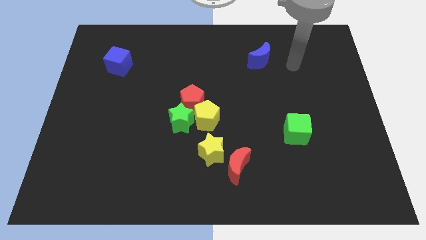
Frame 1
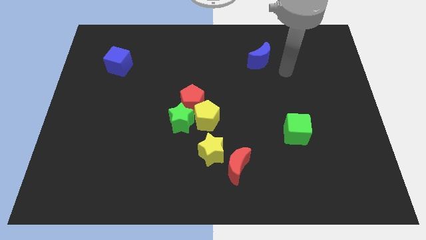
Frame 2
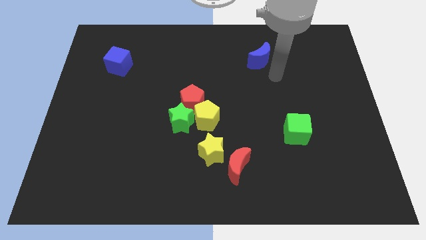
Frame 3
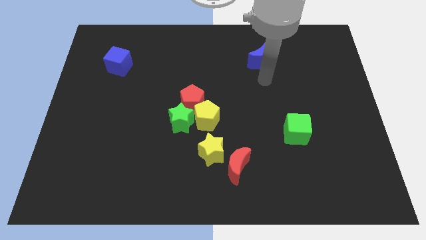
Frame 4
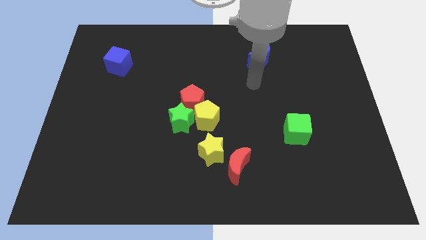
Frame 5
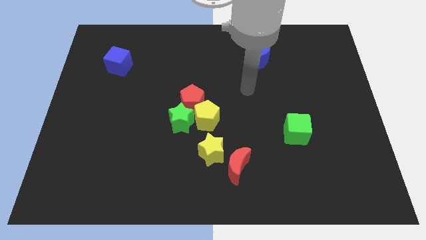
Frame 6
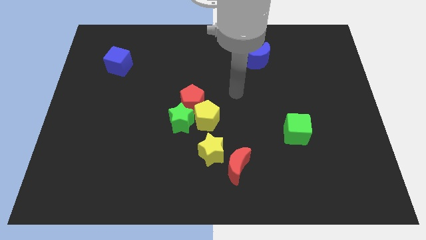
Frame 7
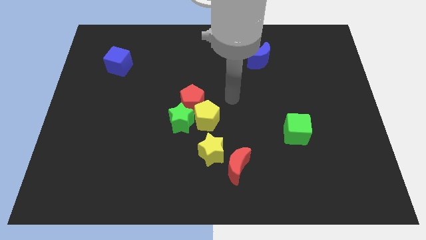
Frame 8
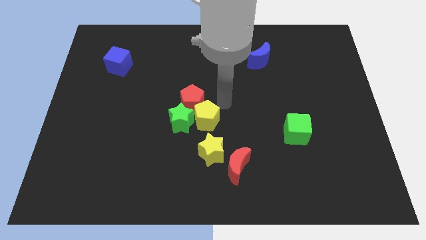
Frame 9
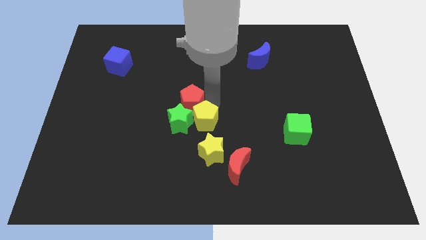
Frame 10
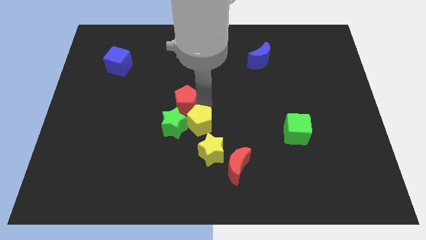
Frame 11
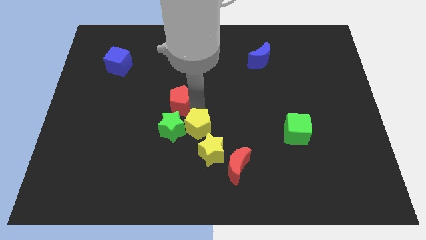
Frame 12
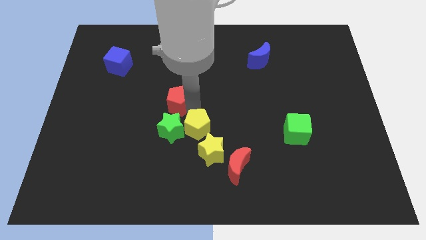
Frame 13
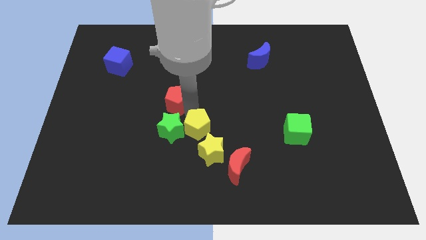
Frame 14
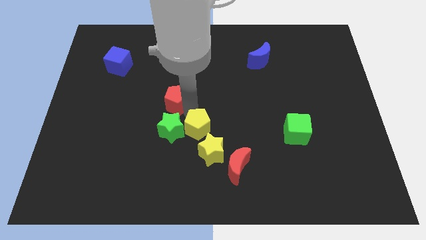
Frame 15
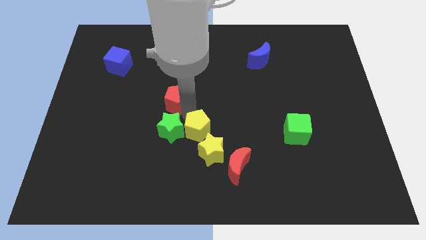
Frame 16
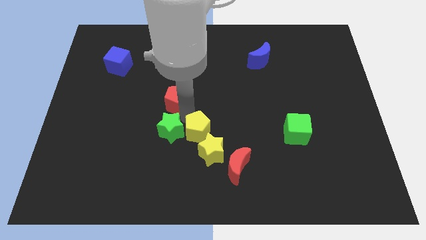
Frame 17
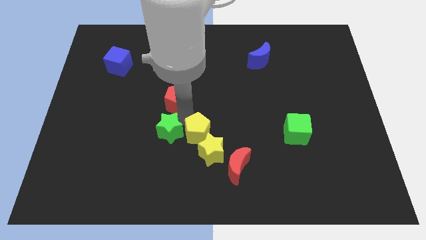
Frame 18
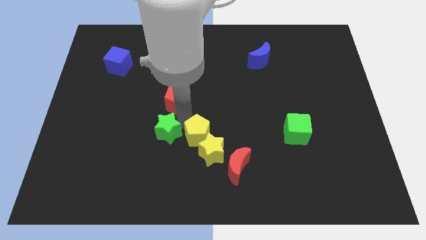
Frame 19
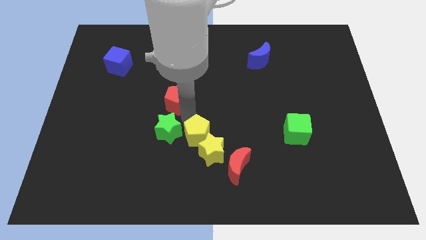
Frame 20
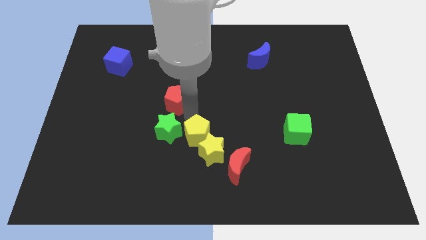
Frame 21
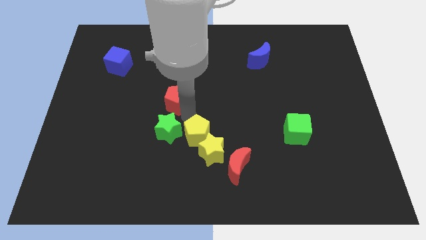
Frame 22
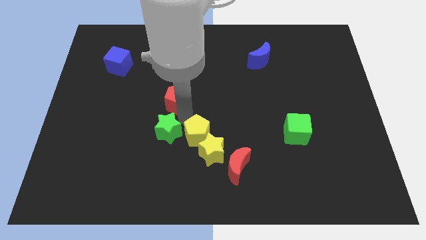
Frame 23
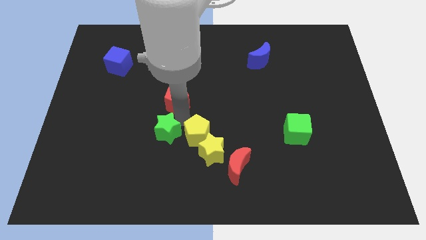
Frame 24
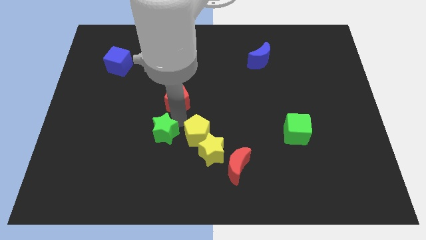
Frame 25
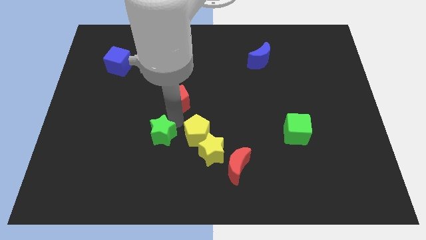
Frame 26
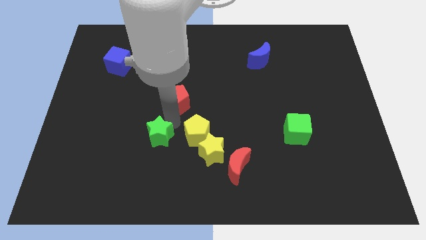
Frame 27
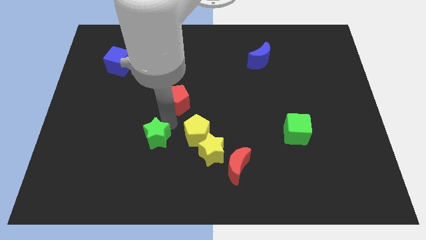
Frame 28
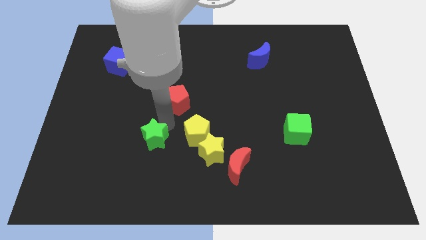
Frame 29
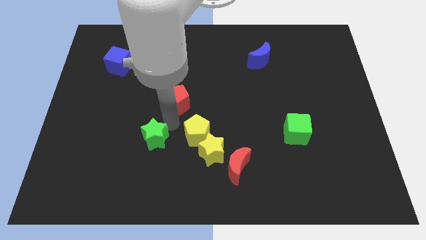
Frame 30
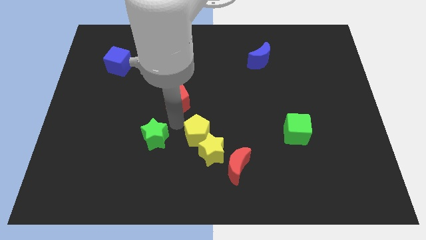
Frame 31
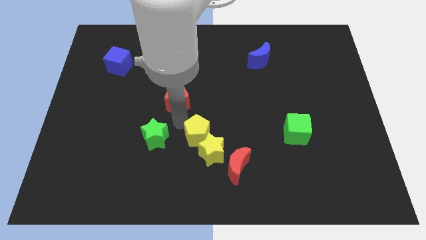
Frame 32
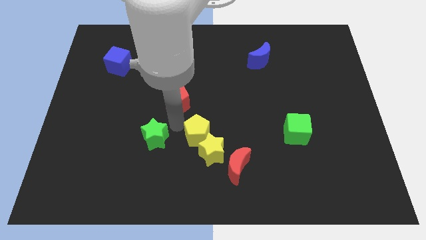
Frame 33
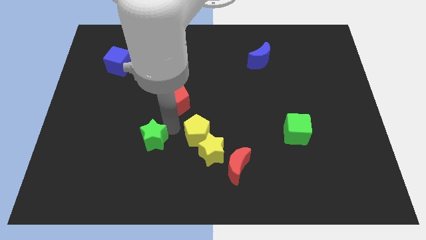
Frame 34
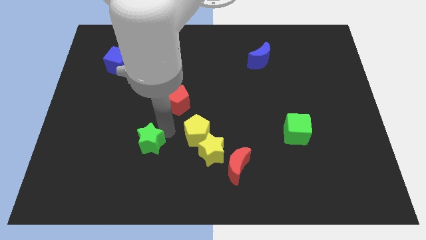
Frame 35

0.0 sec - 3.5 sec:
separate the green star from the yellow pentagon and red pentagon

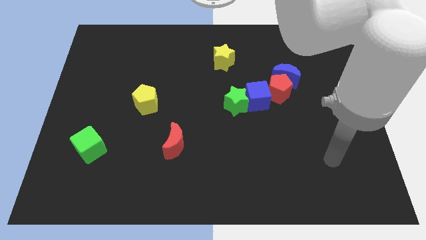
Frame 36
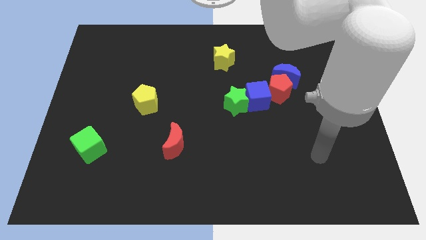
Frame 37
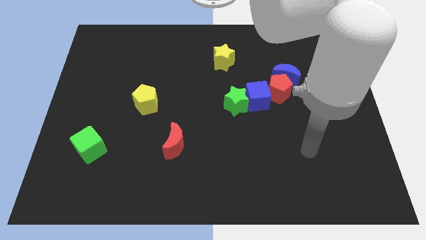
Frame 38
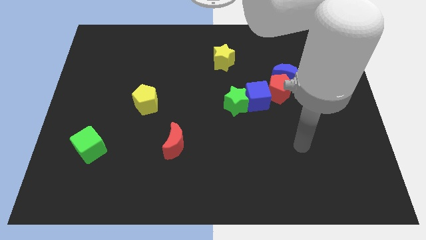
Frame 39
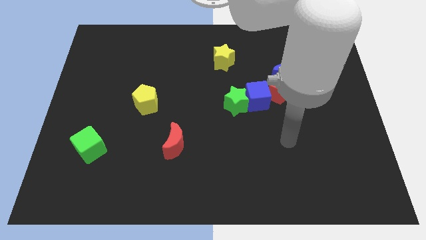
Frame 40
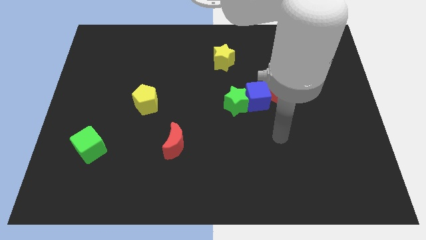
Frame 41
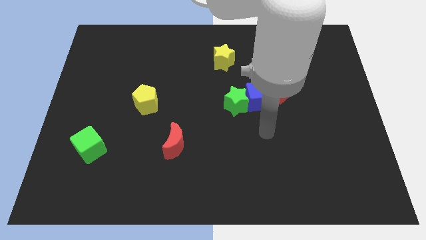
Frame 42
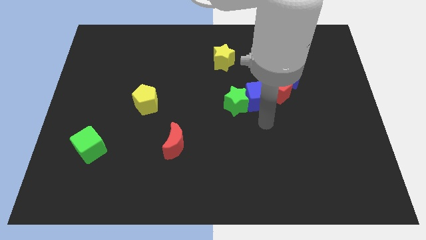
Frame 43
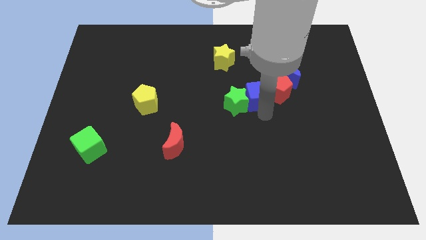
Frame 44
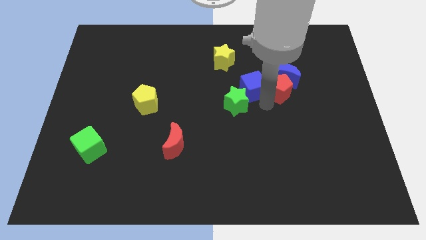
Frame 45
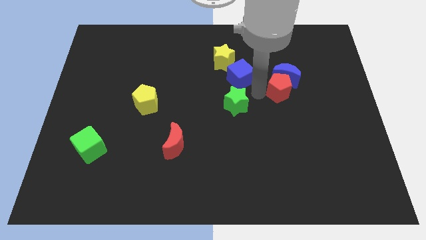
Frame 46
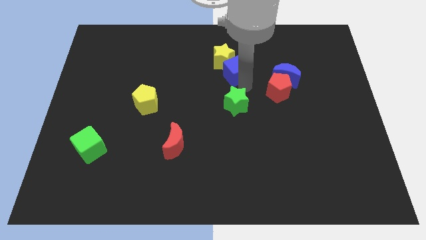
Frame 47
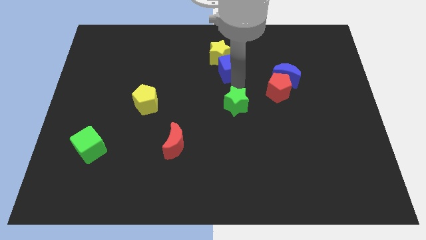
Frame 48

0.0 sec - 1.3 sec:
move the green star away from the blue cube

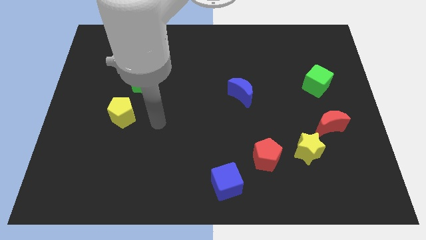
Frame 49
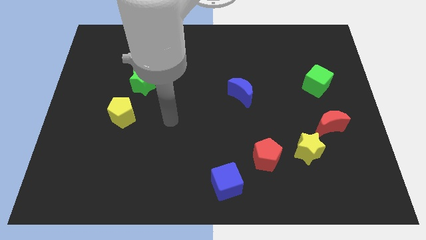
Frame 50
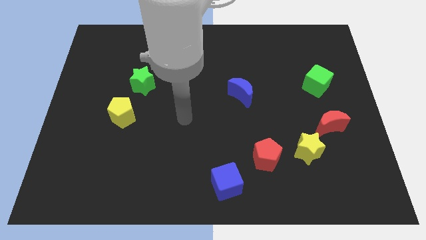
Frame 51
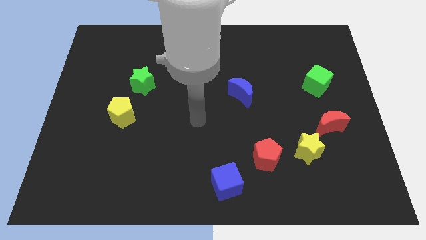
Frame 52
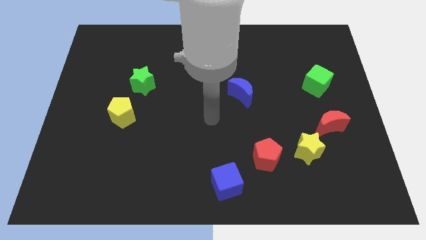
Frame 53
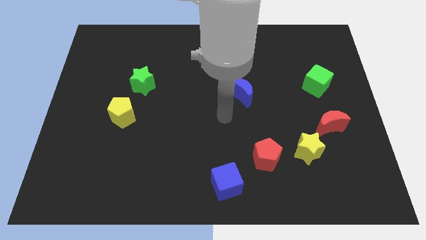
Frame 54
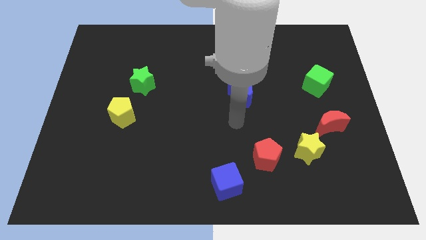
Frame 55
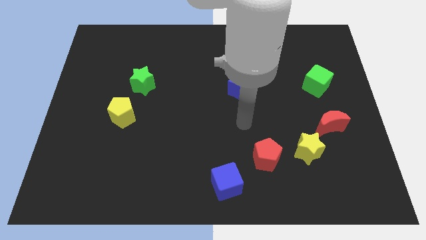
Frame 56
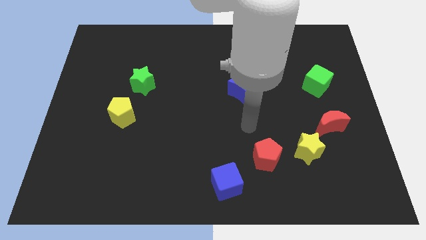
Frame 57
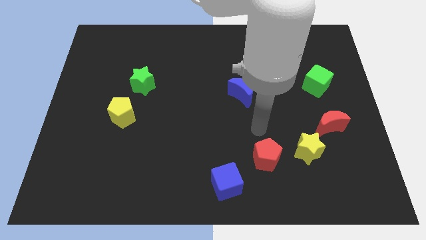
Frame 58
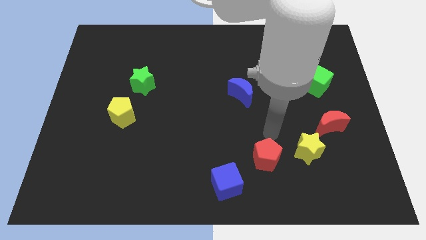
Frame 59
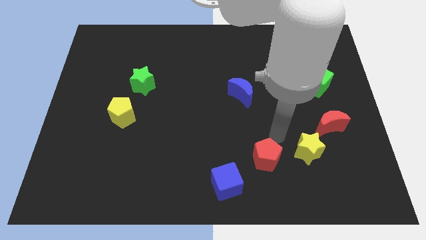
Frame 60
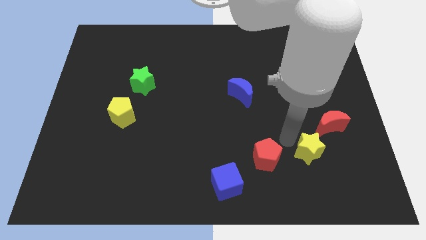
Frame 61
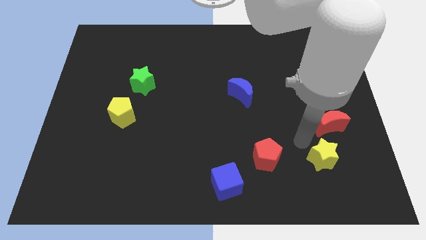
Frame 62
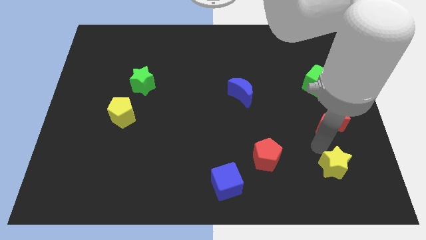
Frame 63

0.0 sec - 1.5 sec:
pull the red moon apart from the yellow star

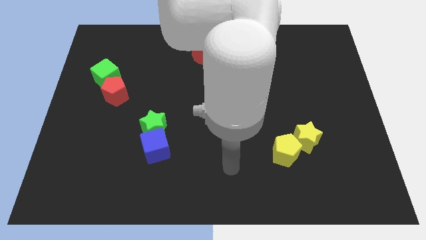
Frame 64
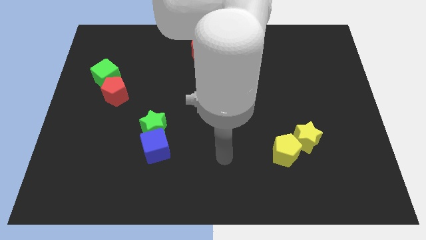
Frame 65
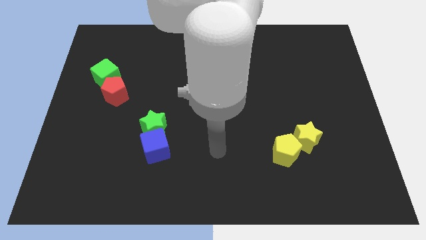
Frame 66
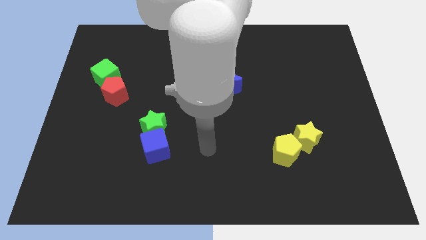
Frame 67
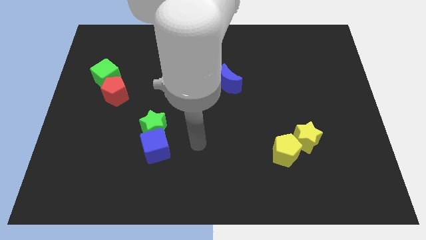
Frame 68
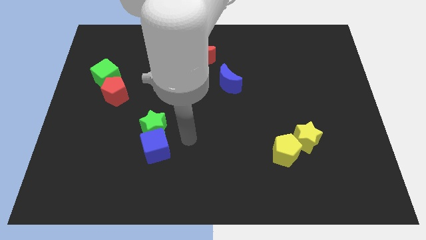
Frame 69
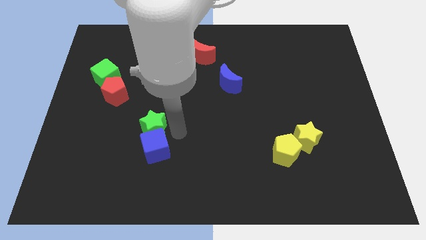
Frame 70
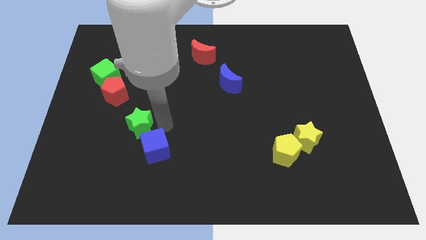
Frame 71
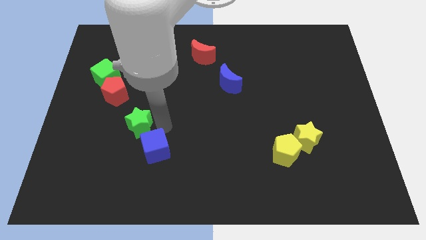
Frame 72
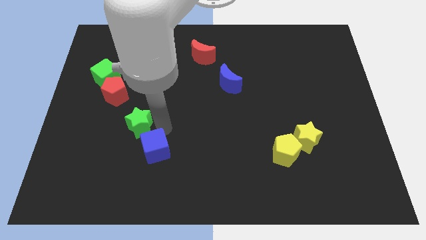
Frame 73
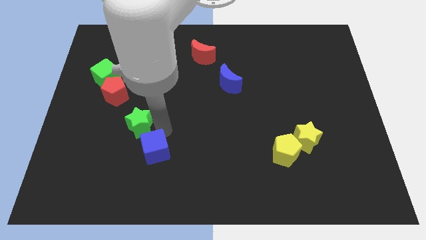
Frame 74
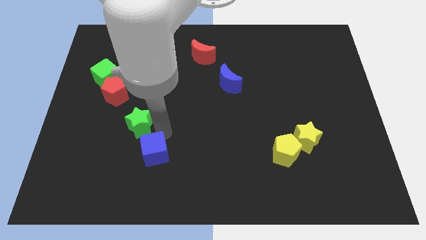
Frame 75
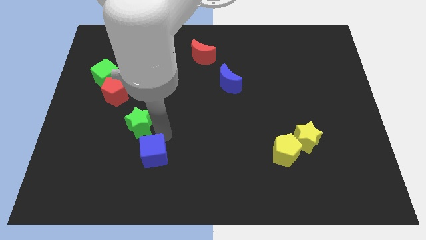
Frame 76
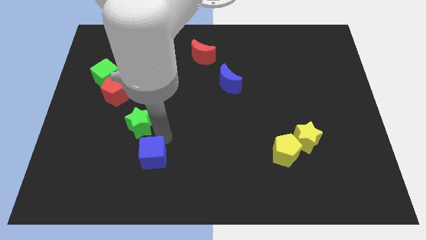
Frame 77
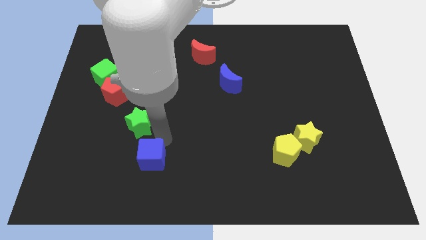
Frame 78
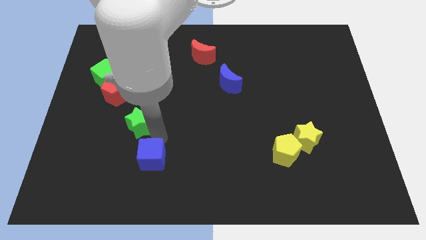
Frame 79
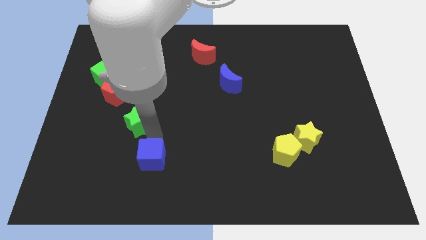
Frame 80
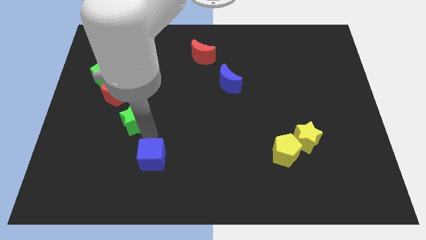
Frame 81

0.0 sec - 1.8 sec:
move the blue cube away from the green star

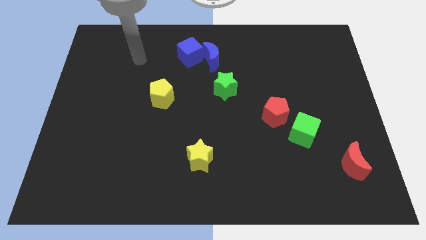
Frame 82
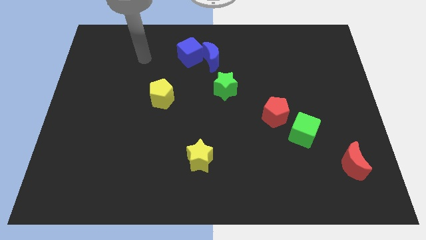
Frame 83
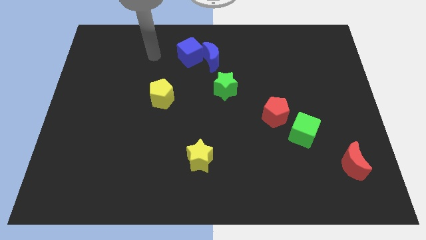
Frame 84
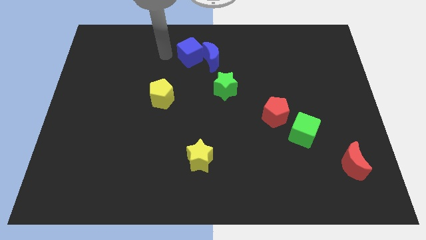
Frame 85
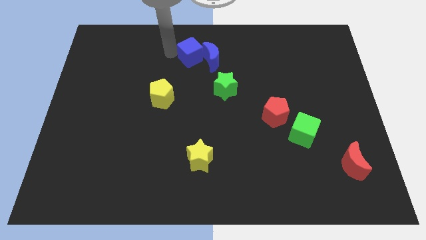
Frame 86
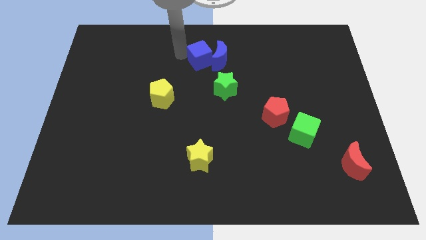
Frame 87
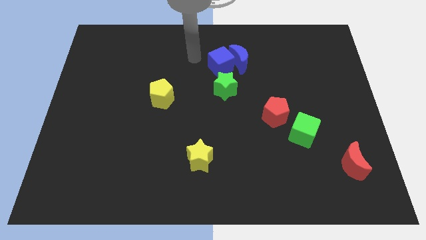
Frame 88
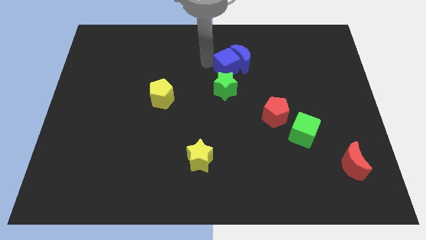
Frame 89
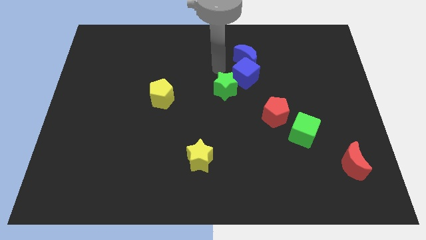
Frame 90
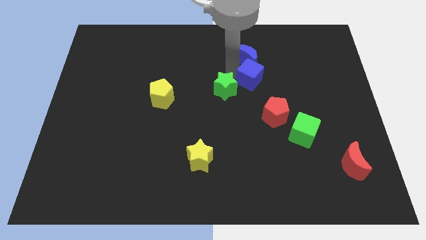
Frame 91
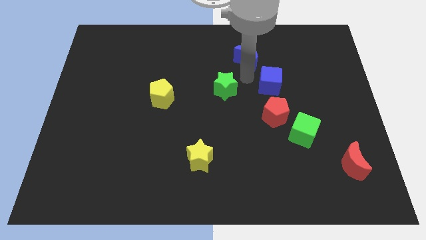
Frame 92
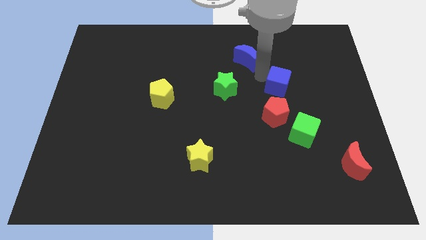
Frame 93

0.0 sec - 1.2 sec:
move the blue moon away from the blue cube
